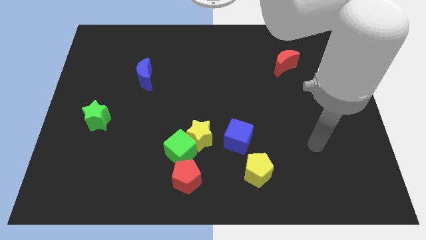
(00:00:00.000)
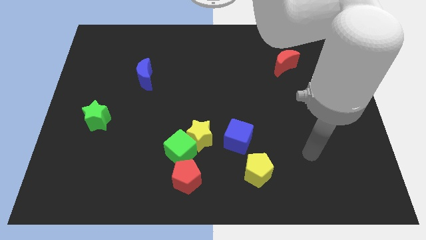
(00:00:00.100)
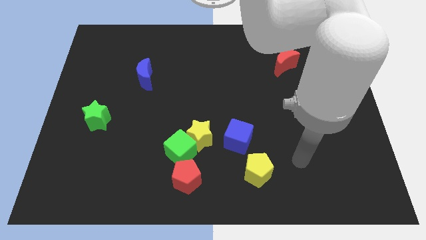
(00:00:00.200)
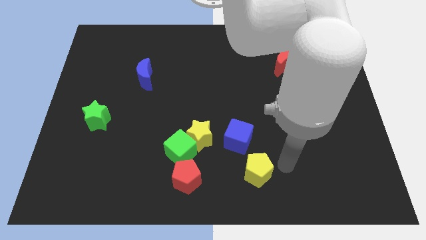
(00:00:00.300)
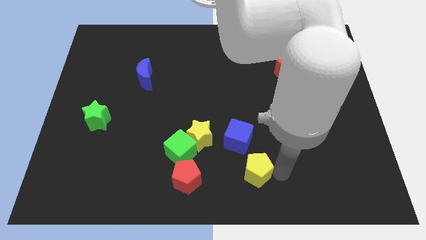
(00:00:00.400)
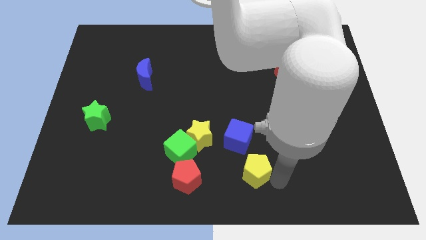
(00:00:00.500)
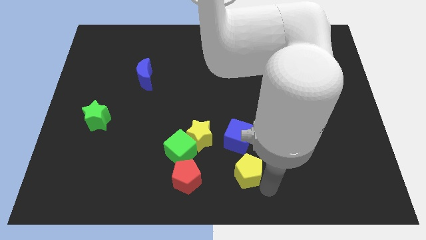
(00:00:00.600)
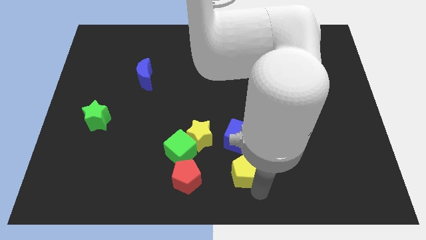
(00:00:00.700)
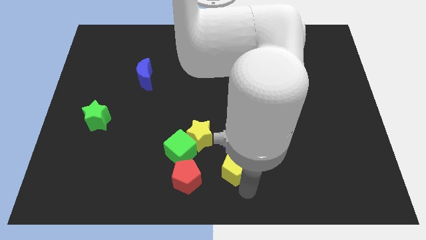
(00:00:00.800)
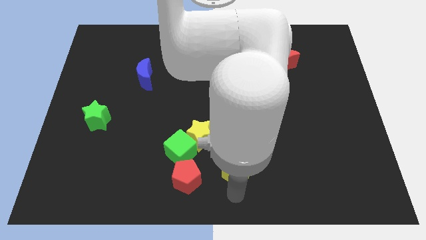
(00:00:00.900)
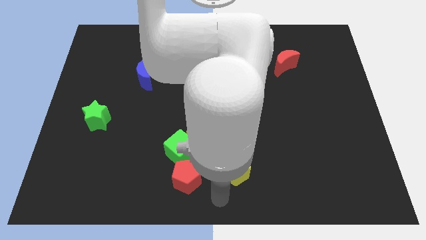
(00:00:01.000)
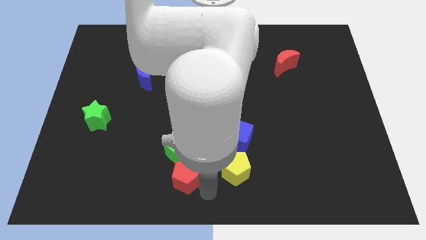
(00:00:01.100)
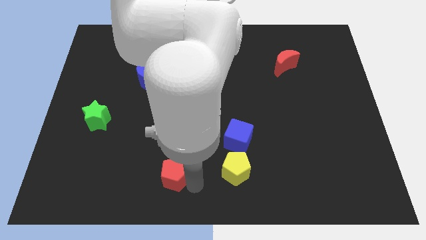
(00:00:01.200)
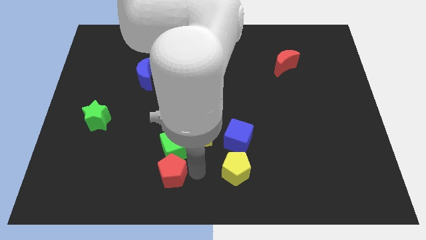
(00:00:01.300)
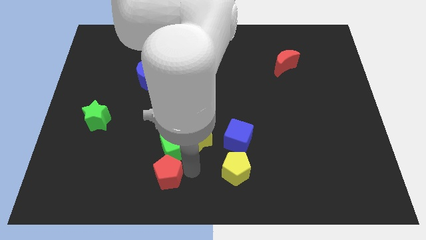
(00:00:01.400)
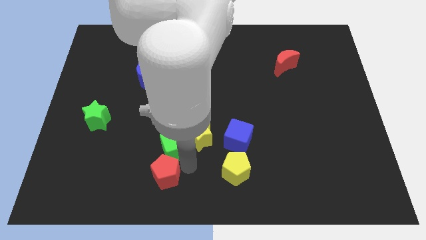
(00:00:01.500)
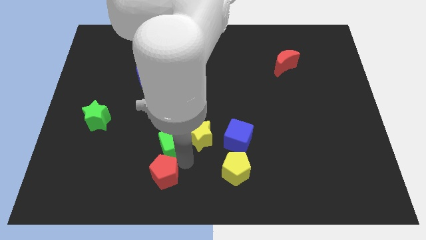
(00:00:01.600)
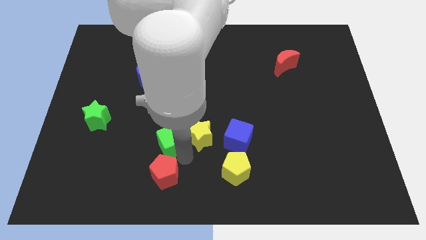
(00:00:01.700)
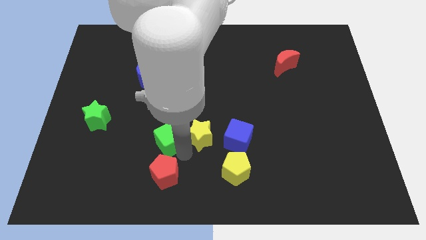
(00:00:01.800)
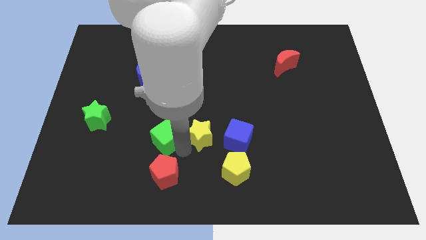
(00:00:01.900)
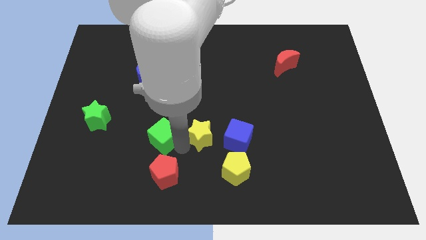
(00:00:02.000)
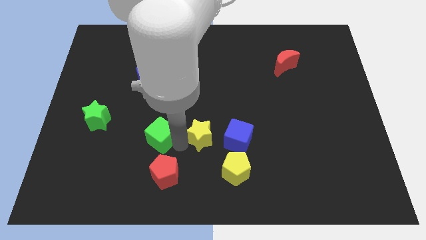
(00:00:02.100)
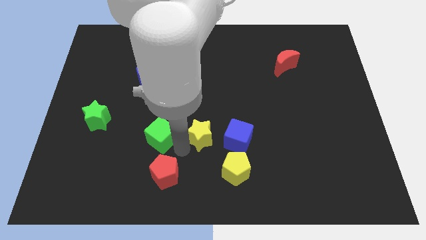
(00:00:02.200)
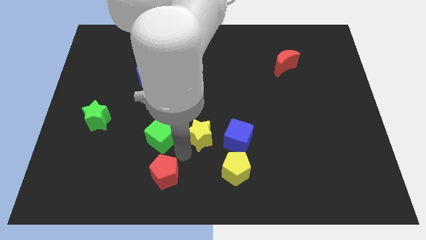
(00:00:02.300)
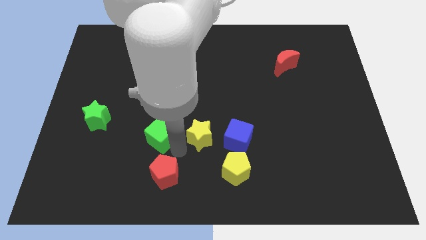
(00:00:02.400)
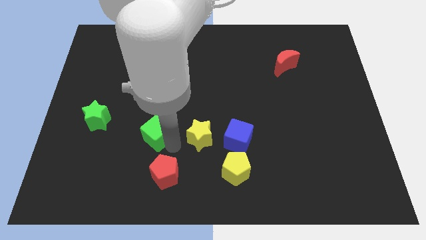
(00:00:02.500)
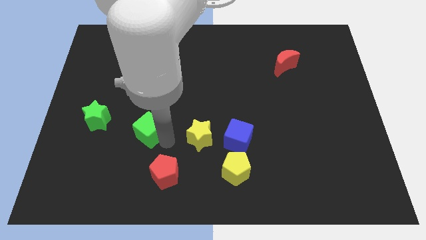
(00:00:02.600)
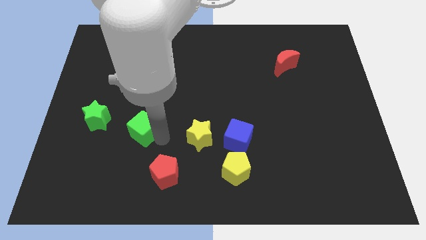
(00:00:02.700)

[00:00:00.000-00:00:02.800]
move the green cube away from the yellow star and red pentagon

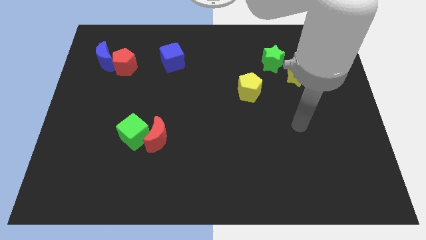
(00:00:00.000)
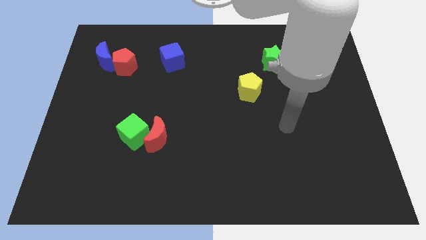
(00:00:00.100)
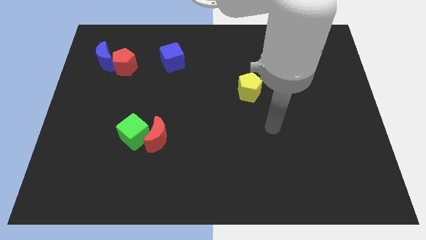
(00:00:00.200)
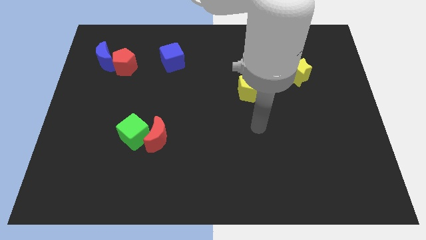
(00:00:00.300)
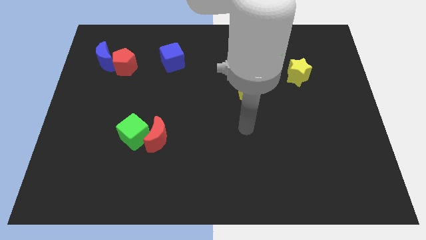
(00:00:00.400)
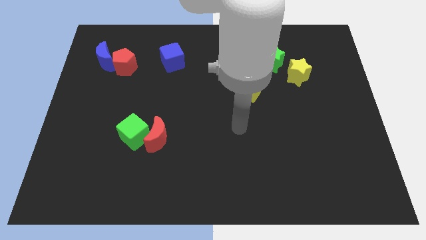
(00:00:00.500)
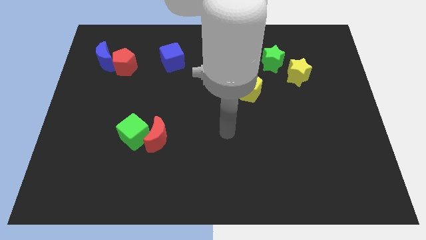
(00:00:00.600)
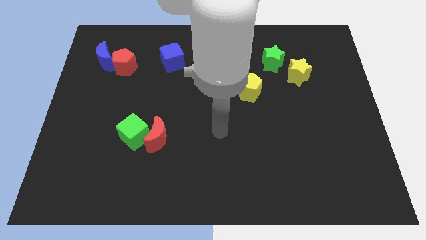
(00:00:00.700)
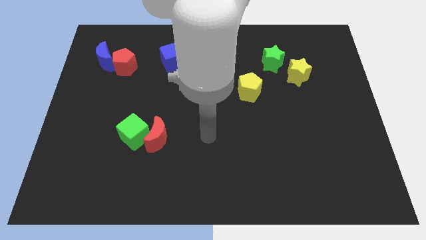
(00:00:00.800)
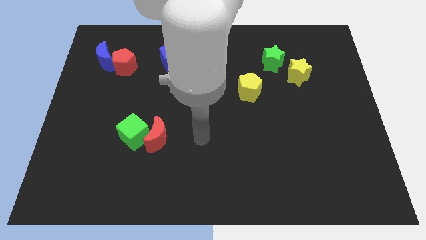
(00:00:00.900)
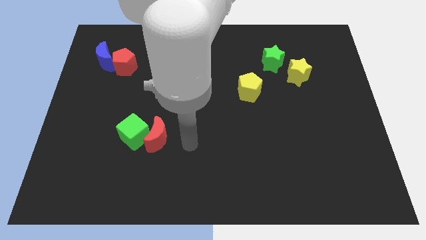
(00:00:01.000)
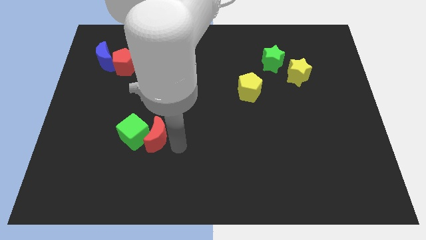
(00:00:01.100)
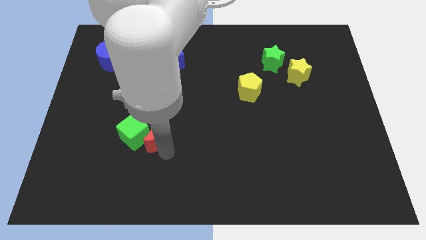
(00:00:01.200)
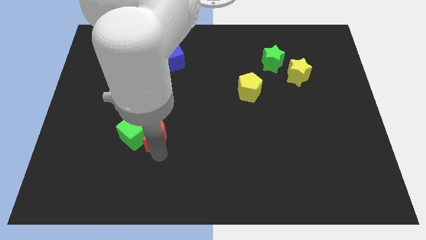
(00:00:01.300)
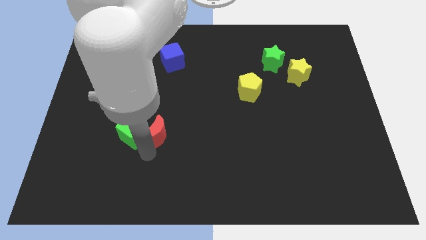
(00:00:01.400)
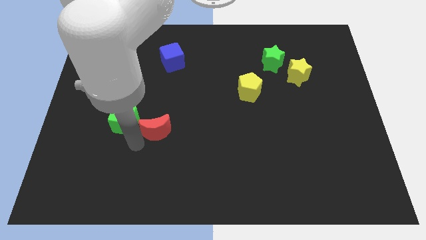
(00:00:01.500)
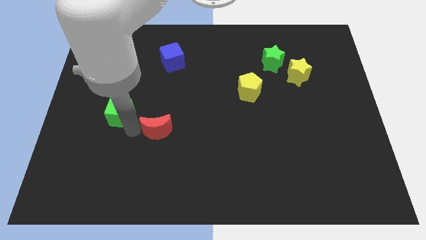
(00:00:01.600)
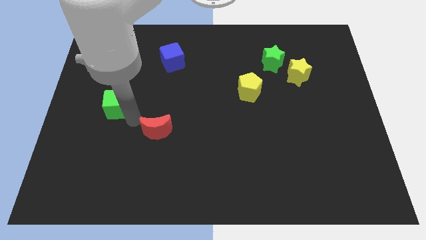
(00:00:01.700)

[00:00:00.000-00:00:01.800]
pull the red moon apart from the green cube

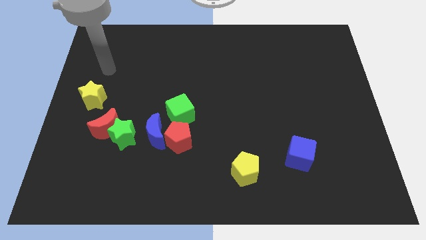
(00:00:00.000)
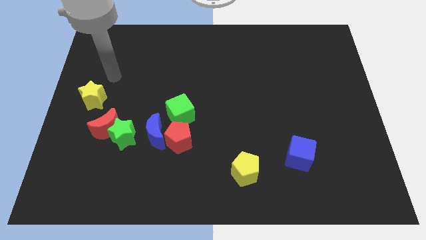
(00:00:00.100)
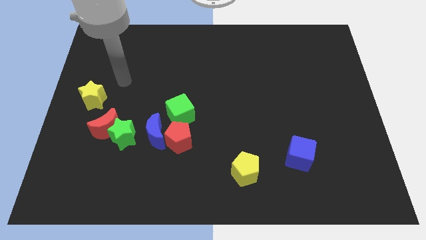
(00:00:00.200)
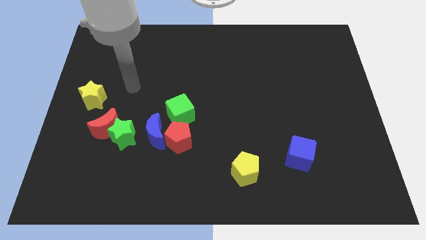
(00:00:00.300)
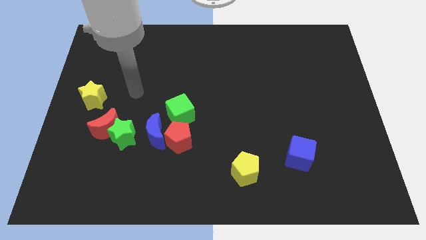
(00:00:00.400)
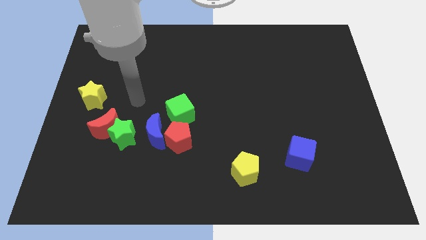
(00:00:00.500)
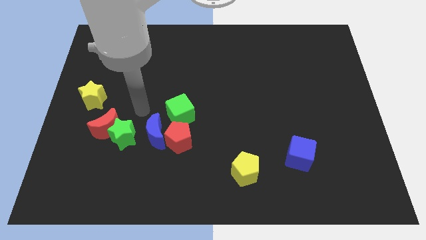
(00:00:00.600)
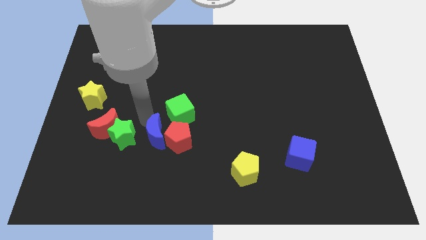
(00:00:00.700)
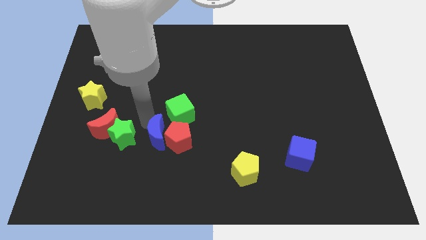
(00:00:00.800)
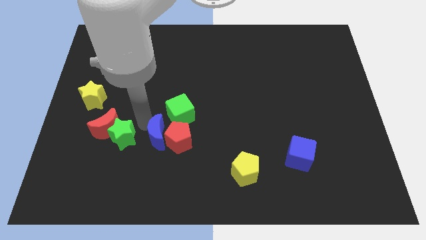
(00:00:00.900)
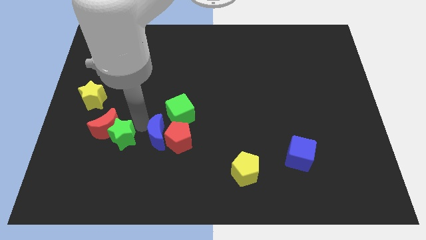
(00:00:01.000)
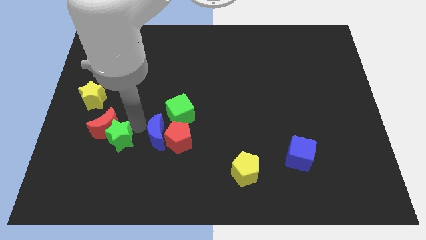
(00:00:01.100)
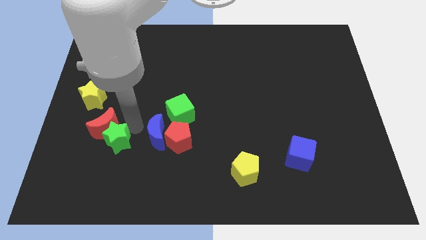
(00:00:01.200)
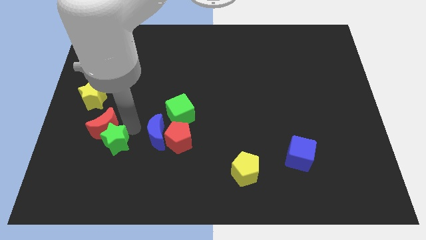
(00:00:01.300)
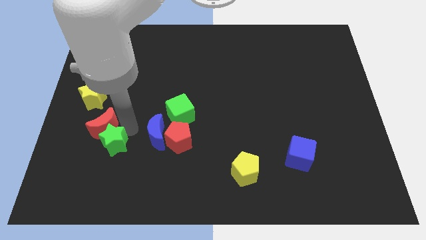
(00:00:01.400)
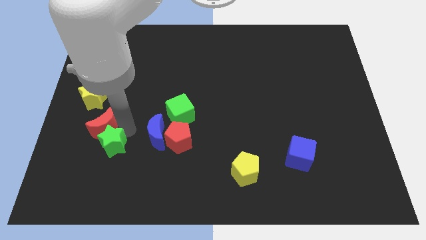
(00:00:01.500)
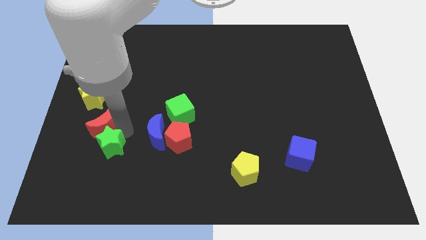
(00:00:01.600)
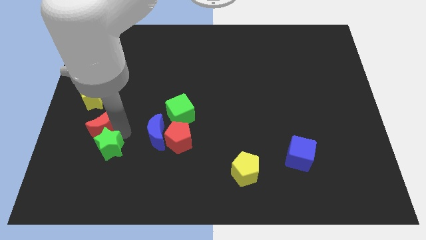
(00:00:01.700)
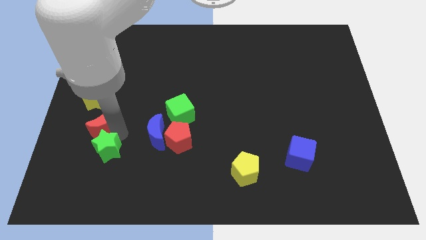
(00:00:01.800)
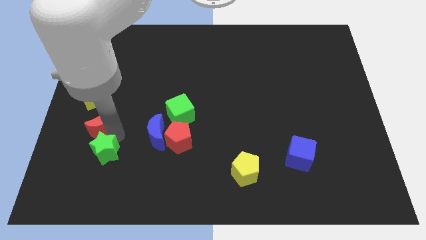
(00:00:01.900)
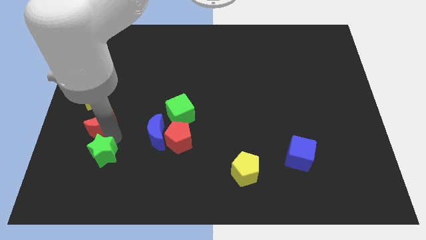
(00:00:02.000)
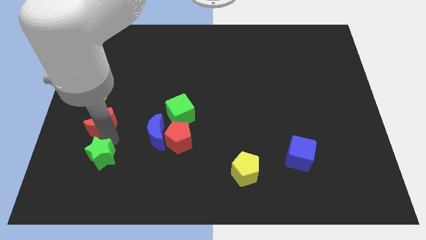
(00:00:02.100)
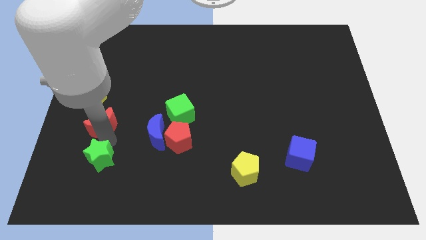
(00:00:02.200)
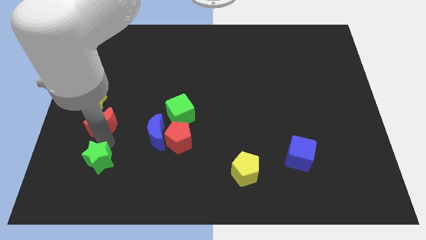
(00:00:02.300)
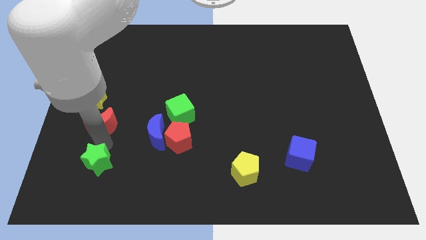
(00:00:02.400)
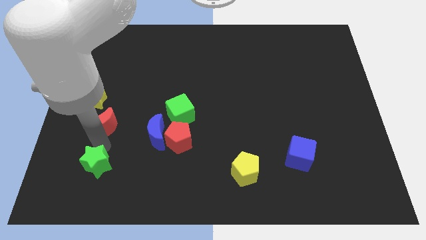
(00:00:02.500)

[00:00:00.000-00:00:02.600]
move the green star away from the red moon and blue moon

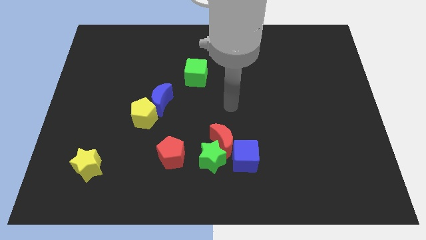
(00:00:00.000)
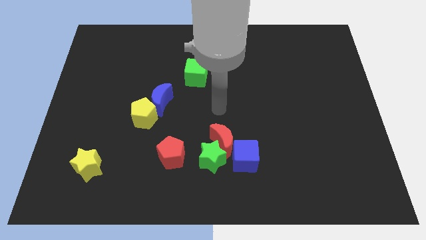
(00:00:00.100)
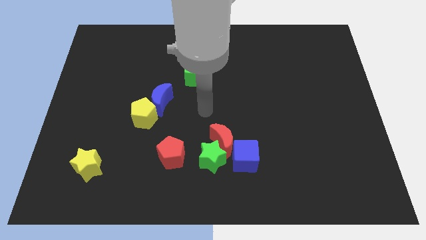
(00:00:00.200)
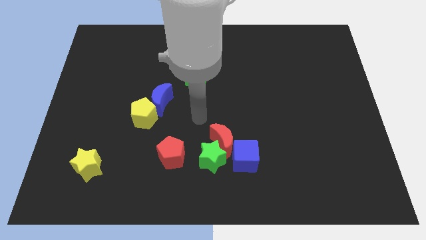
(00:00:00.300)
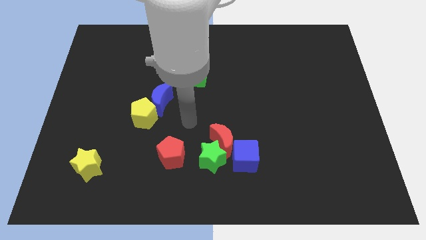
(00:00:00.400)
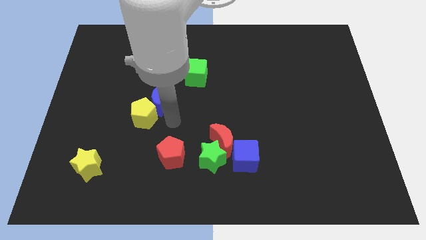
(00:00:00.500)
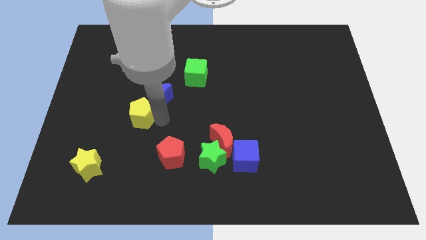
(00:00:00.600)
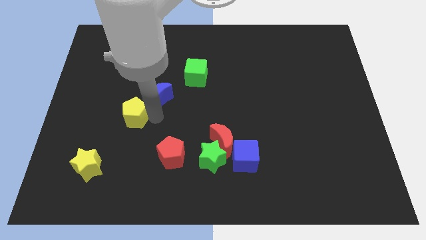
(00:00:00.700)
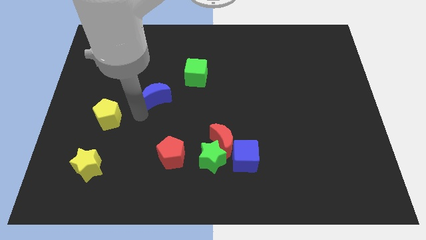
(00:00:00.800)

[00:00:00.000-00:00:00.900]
separate the blue moon from the yellow pentagon

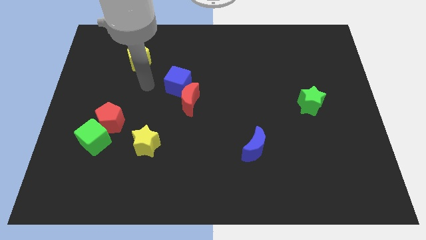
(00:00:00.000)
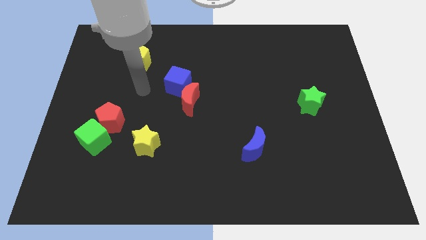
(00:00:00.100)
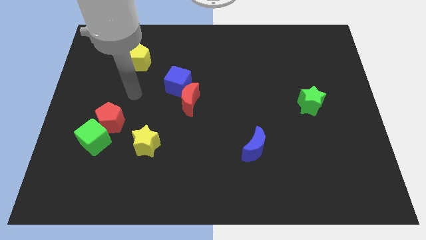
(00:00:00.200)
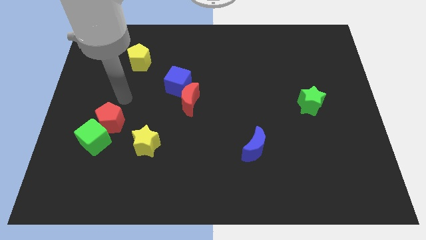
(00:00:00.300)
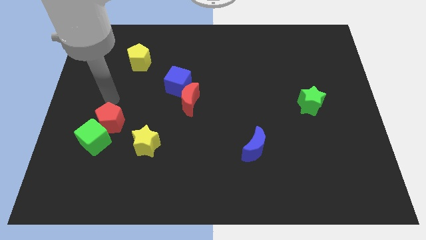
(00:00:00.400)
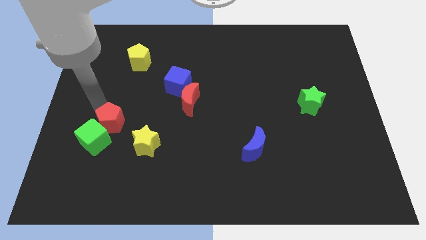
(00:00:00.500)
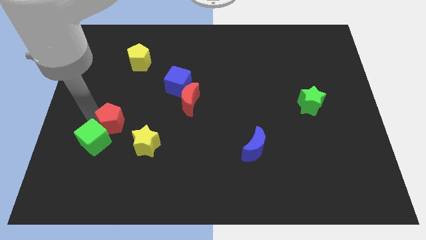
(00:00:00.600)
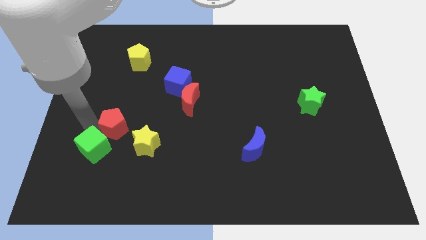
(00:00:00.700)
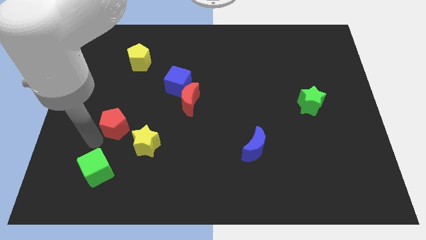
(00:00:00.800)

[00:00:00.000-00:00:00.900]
pull the red pentagon apart from the green cube

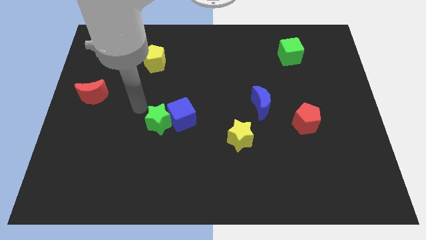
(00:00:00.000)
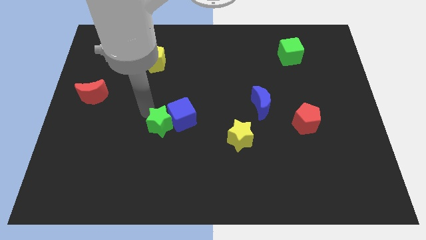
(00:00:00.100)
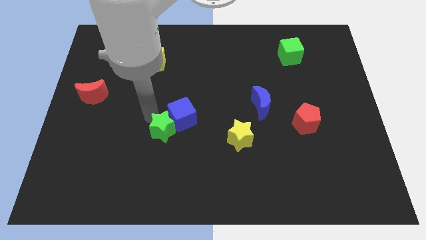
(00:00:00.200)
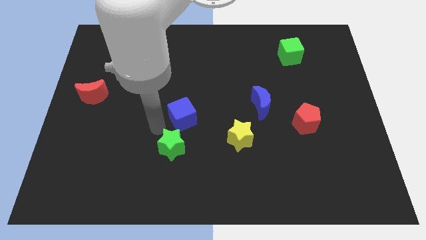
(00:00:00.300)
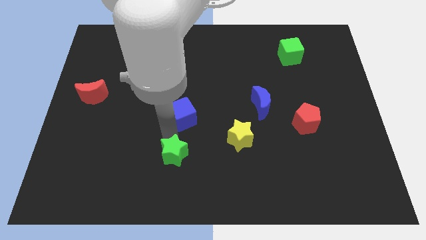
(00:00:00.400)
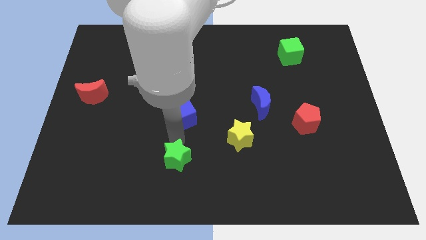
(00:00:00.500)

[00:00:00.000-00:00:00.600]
separate the blue cube from the green star
